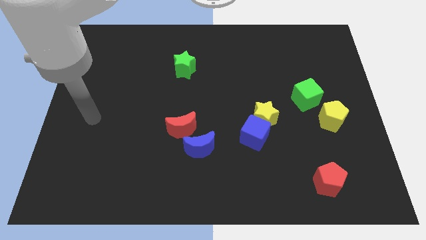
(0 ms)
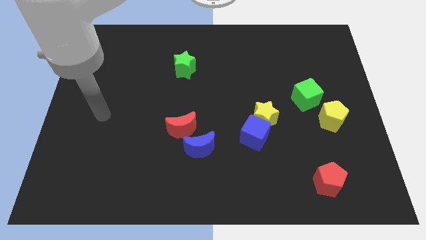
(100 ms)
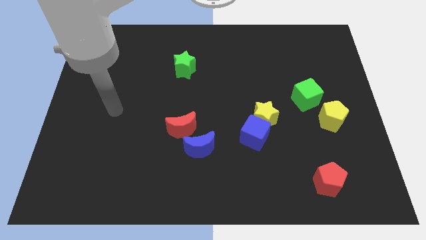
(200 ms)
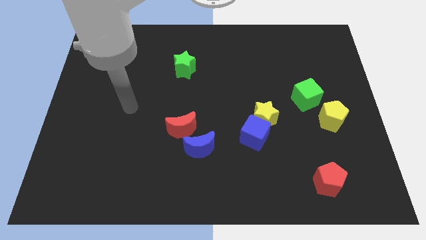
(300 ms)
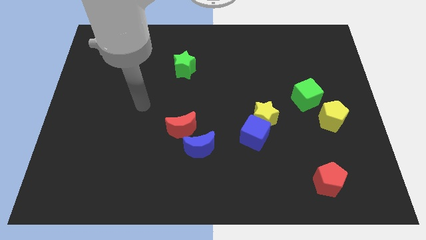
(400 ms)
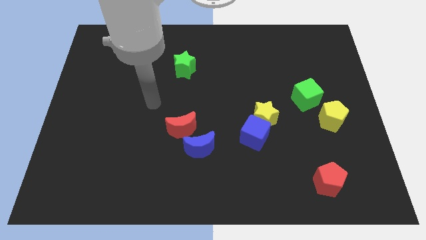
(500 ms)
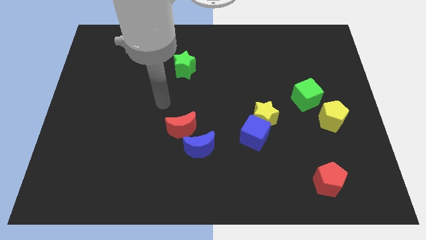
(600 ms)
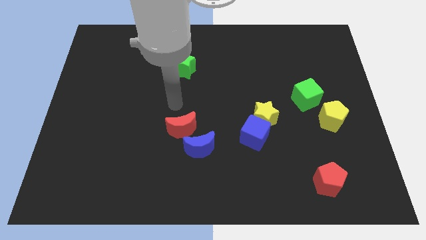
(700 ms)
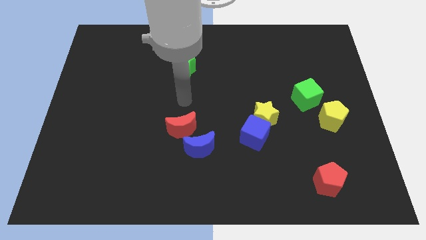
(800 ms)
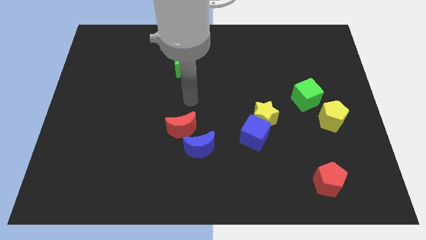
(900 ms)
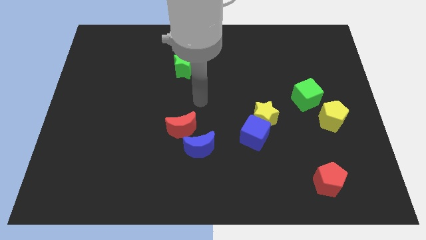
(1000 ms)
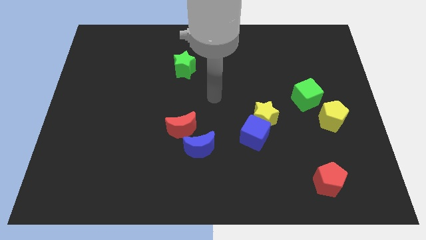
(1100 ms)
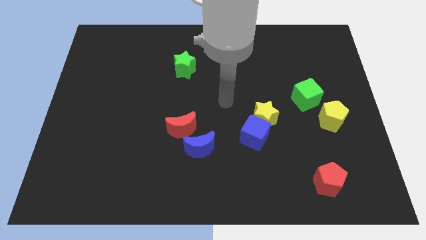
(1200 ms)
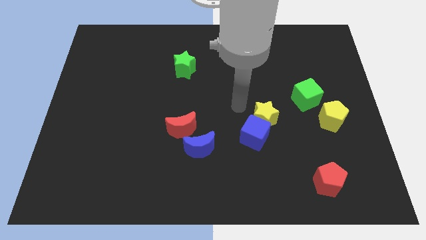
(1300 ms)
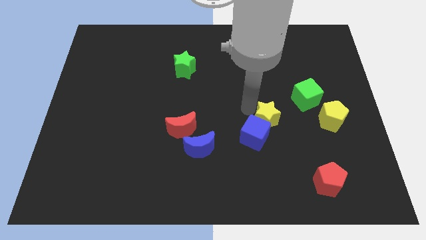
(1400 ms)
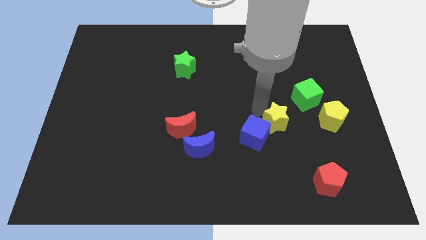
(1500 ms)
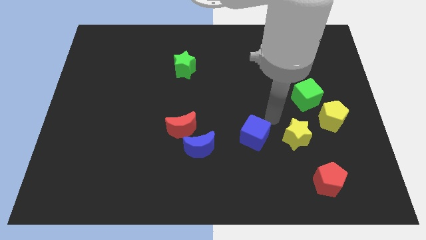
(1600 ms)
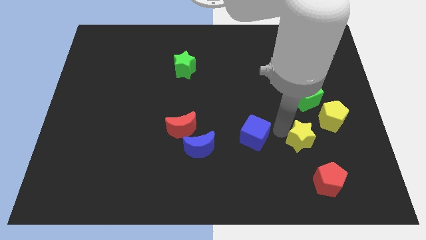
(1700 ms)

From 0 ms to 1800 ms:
move the blue cube away from the yellow star

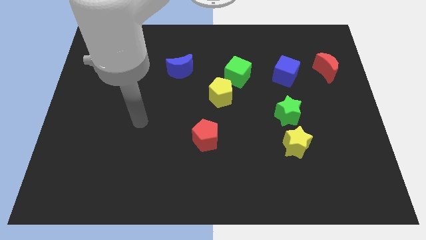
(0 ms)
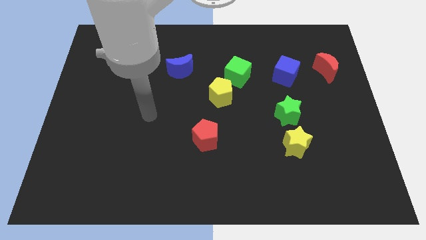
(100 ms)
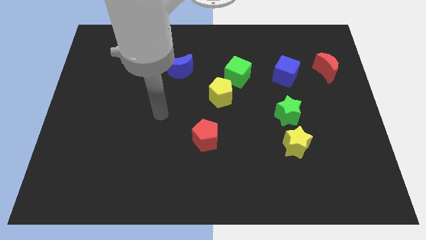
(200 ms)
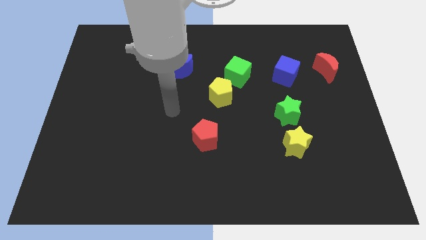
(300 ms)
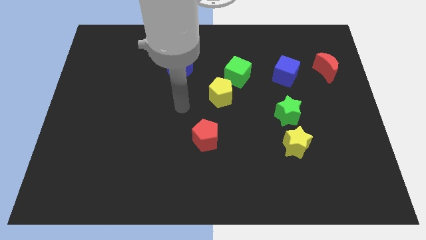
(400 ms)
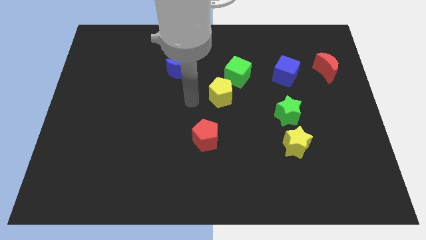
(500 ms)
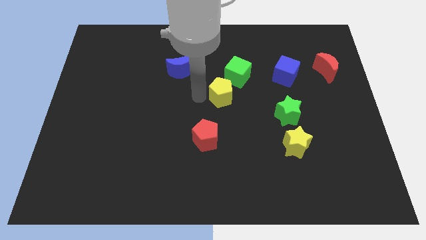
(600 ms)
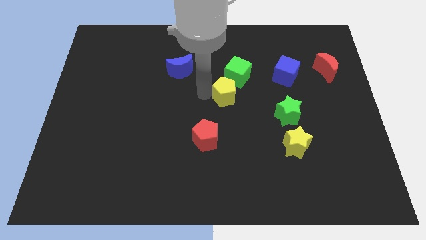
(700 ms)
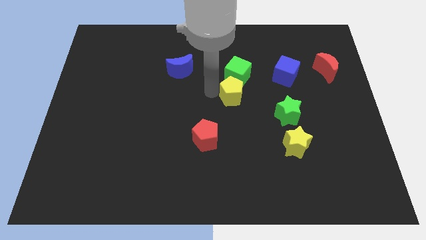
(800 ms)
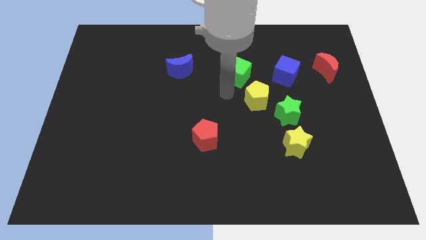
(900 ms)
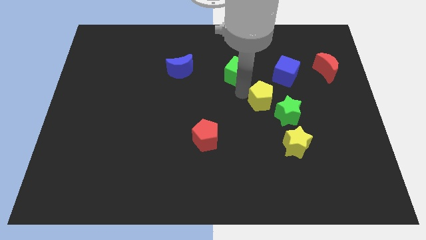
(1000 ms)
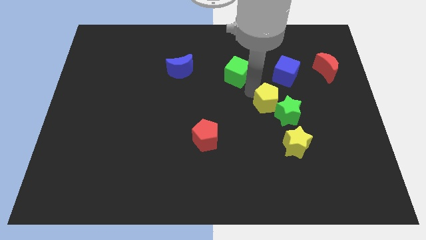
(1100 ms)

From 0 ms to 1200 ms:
pull the green cube apart from the yellow pentagon

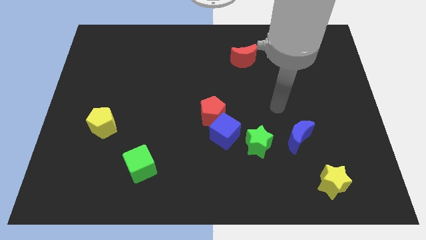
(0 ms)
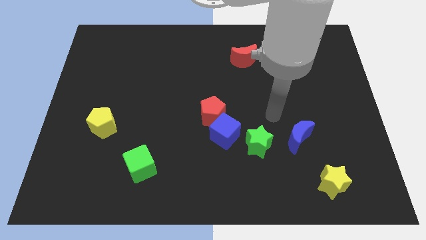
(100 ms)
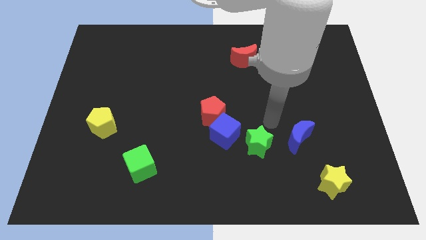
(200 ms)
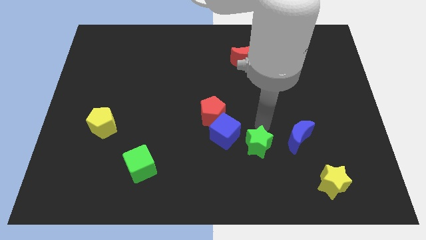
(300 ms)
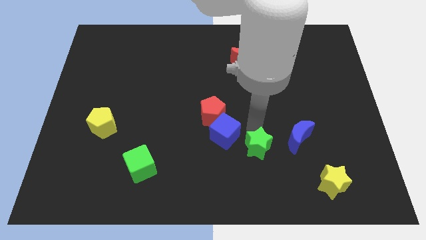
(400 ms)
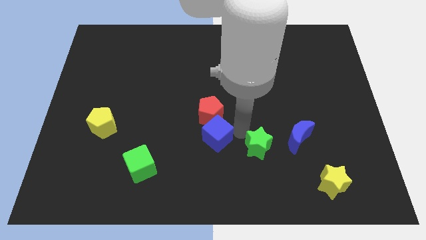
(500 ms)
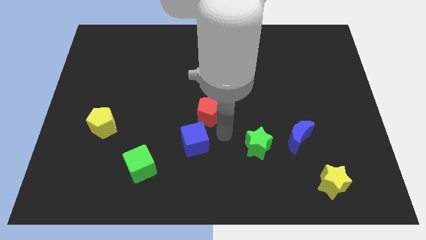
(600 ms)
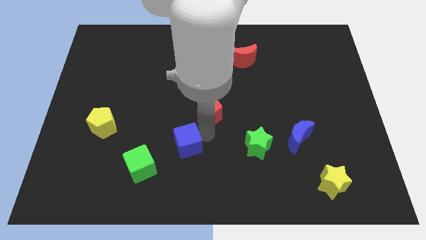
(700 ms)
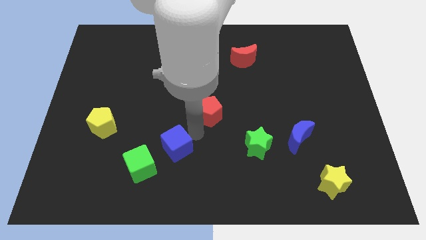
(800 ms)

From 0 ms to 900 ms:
pull the red pentagon apart from the blue cube

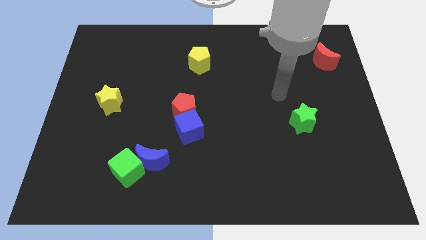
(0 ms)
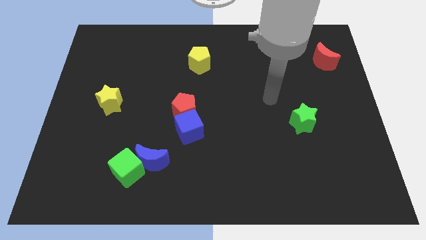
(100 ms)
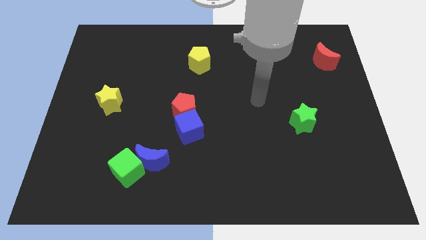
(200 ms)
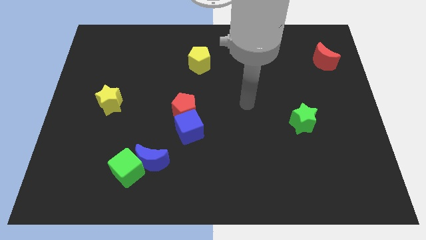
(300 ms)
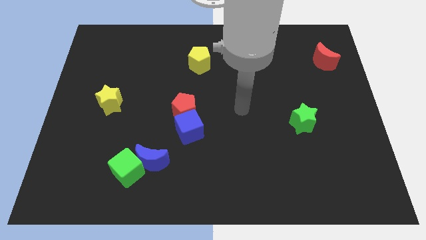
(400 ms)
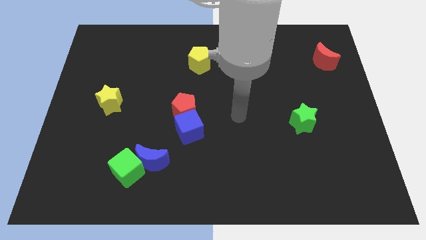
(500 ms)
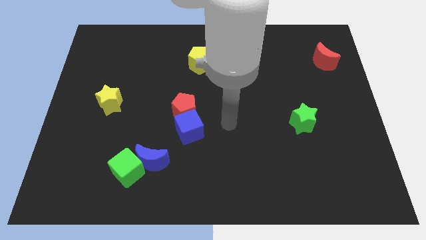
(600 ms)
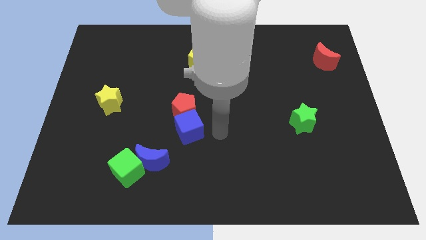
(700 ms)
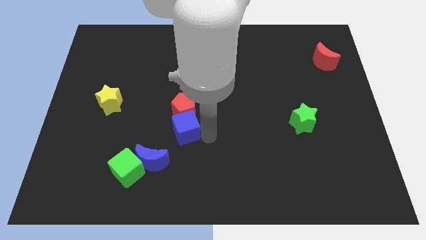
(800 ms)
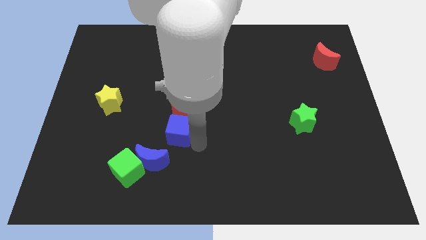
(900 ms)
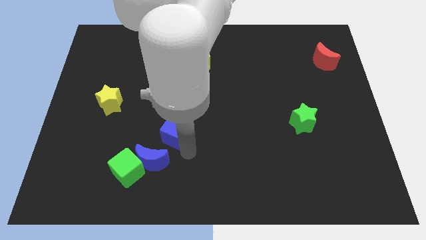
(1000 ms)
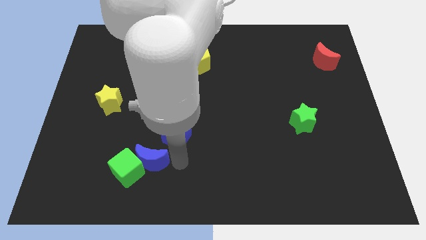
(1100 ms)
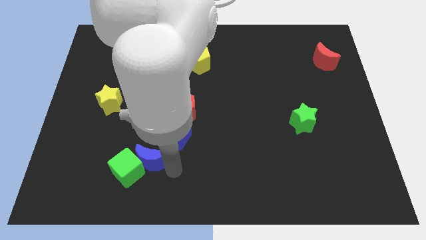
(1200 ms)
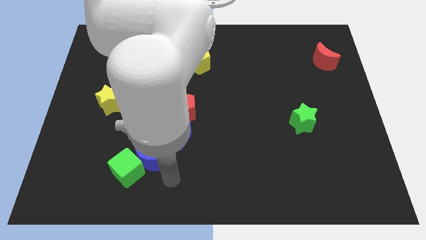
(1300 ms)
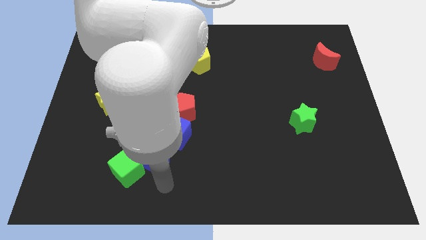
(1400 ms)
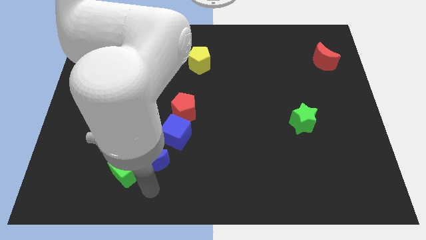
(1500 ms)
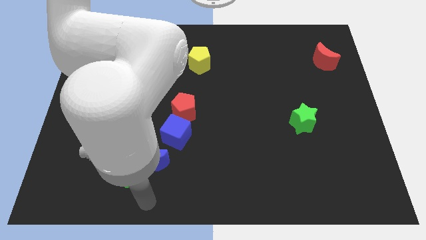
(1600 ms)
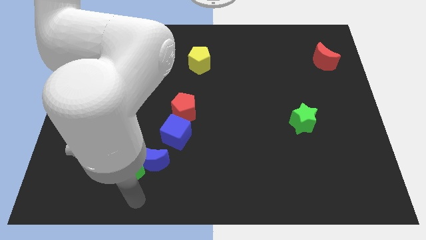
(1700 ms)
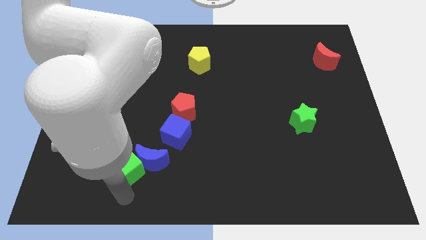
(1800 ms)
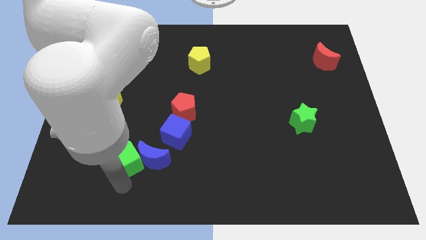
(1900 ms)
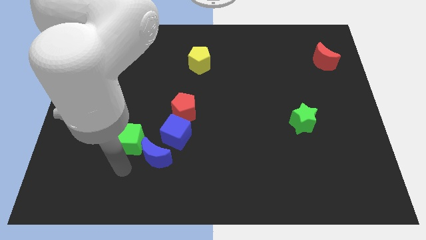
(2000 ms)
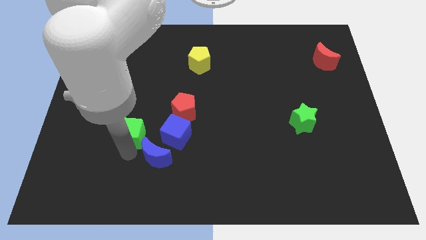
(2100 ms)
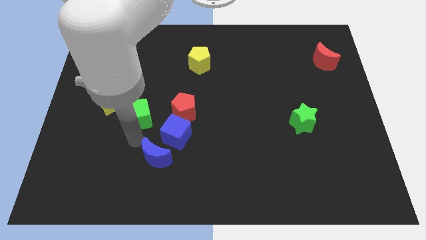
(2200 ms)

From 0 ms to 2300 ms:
separate the blue moon from the green cube

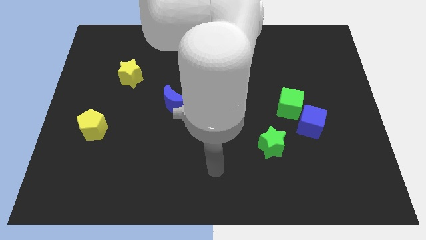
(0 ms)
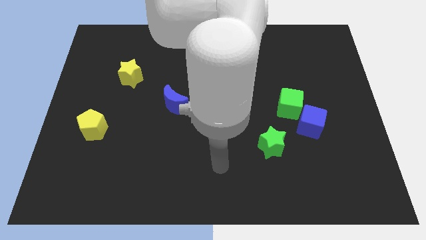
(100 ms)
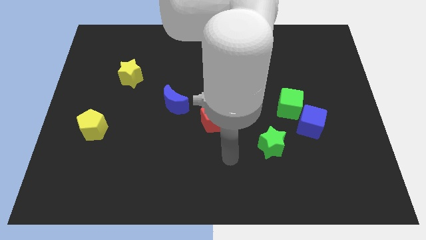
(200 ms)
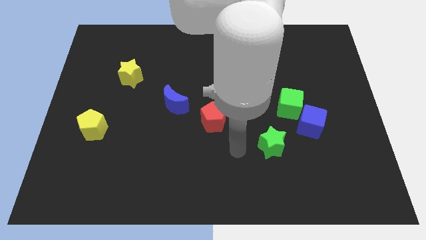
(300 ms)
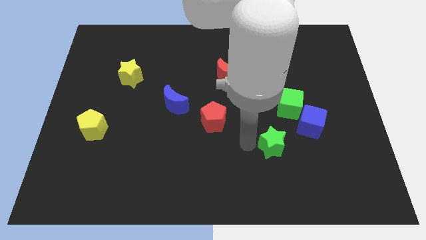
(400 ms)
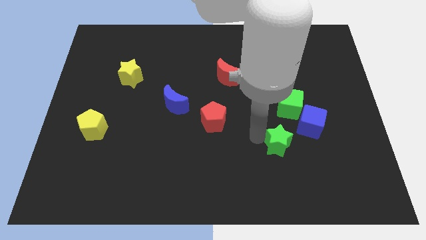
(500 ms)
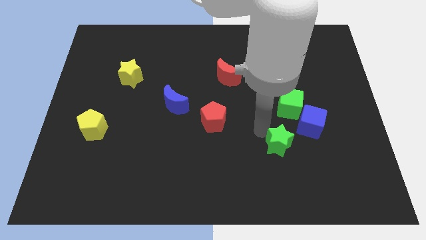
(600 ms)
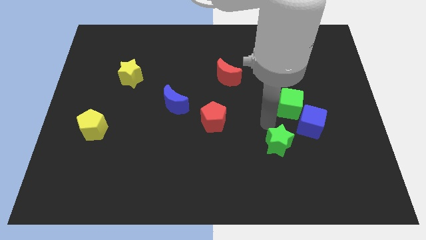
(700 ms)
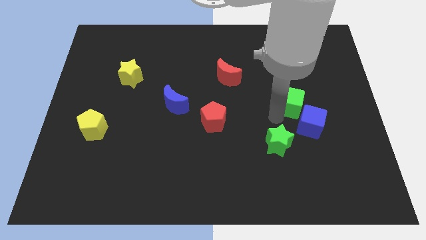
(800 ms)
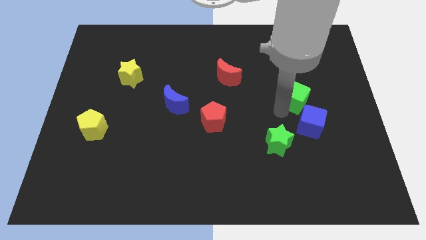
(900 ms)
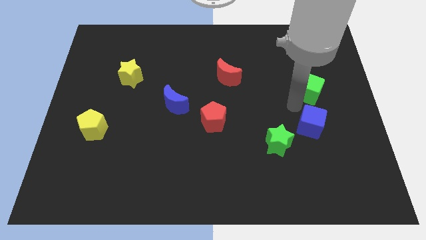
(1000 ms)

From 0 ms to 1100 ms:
pull the blue cube apart from the green cube

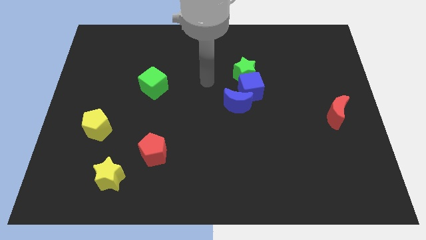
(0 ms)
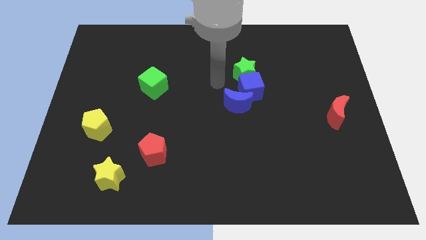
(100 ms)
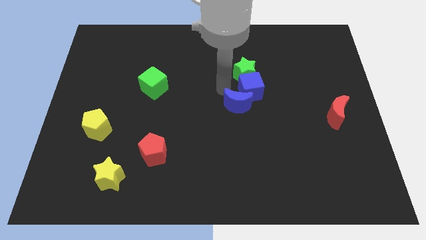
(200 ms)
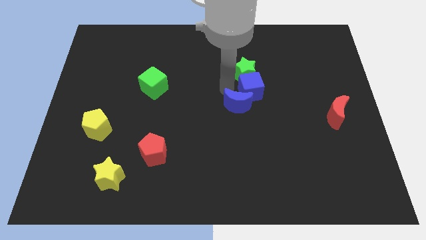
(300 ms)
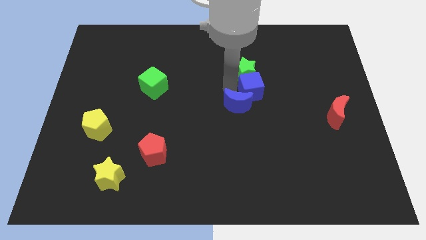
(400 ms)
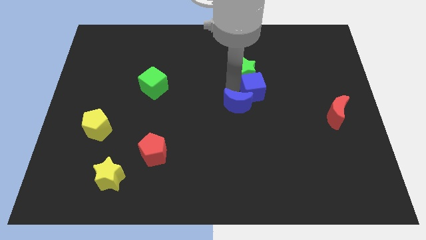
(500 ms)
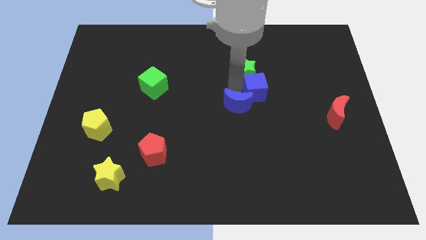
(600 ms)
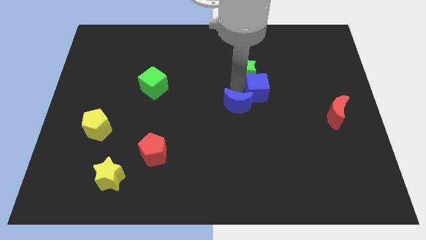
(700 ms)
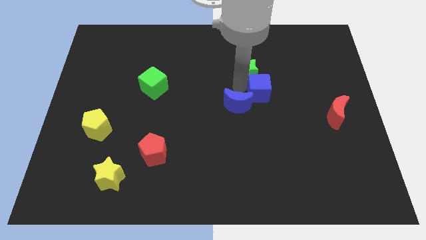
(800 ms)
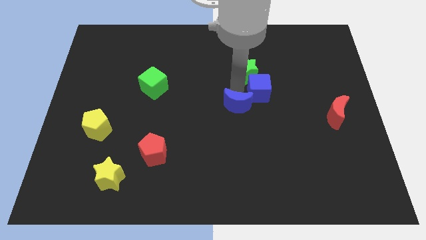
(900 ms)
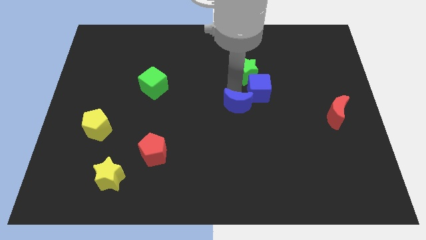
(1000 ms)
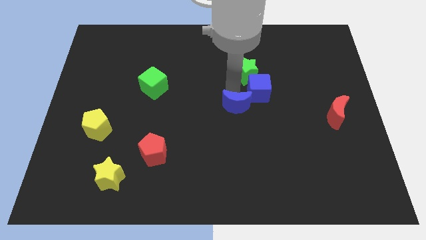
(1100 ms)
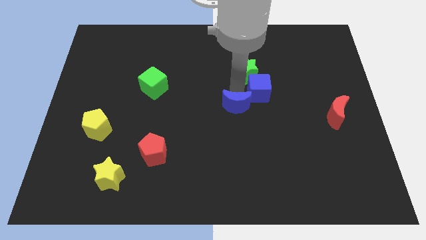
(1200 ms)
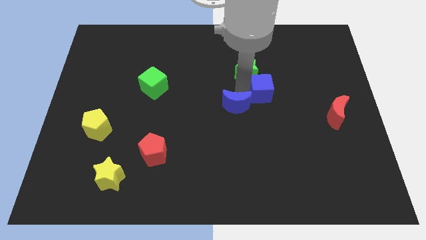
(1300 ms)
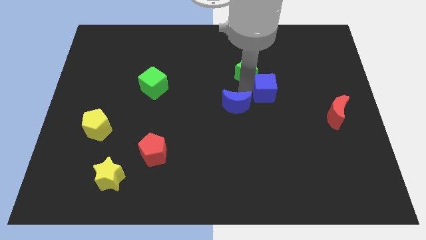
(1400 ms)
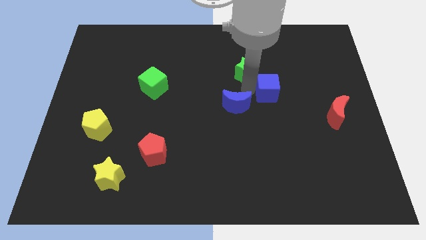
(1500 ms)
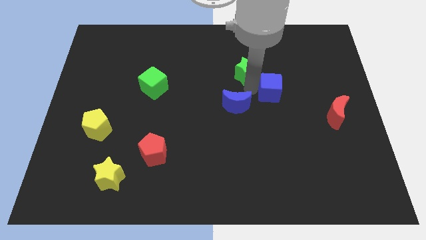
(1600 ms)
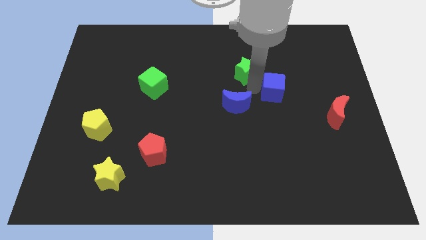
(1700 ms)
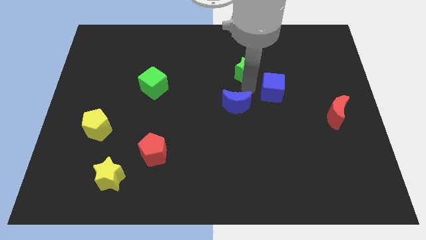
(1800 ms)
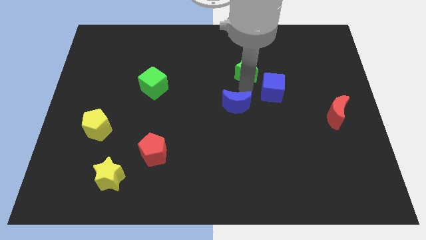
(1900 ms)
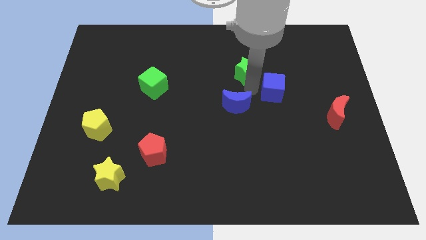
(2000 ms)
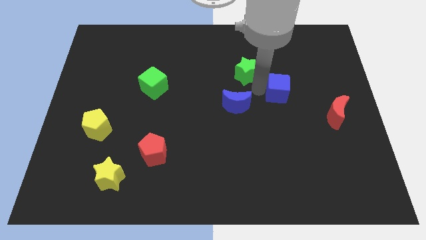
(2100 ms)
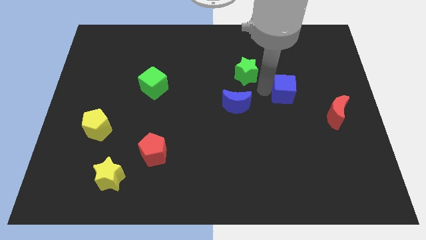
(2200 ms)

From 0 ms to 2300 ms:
move the blue cube away from the green star and blue moon
